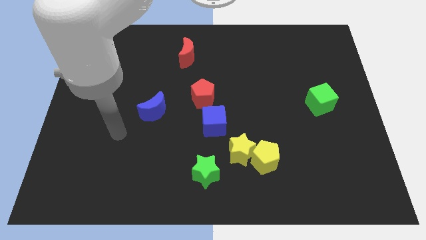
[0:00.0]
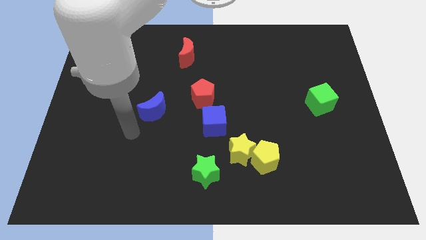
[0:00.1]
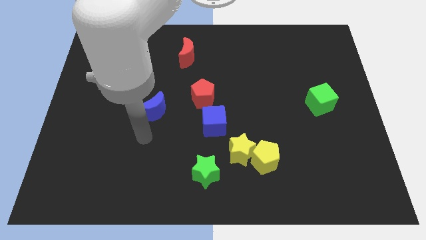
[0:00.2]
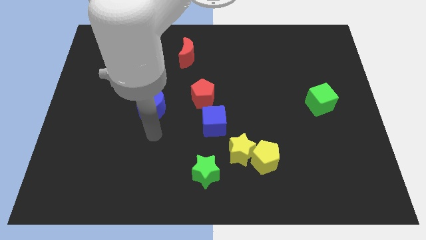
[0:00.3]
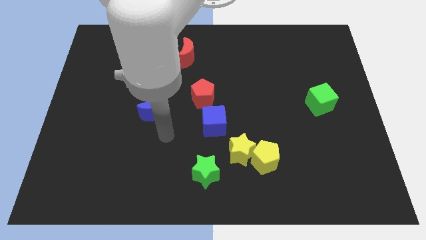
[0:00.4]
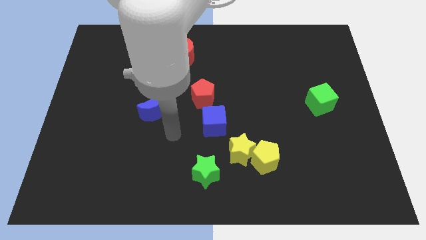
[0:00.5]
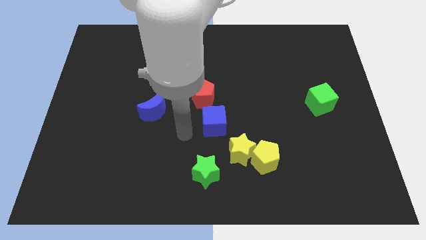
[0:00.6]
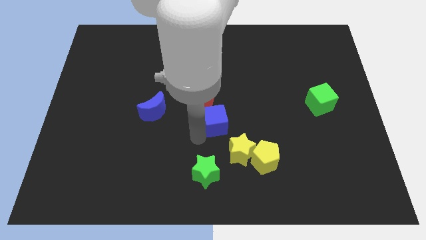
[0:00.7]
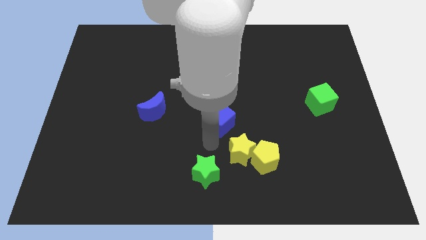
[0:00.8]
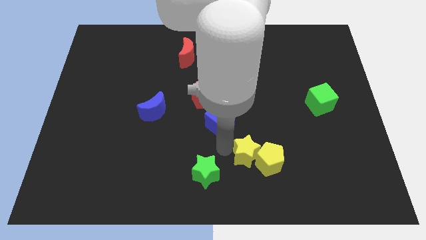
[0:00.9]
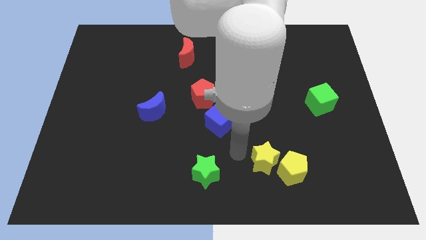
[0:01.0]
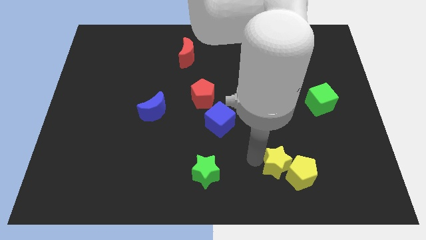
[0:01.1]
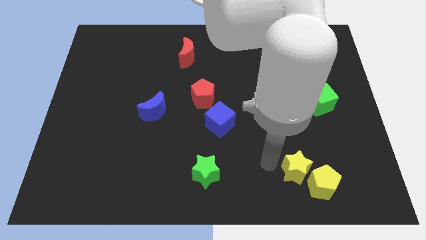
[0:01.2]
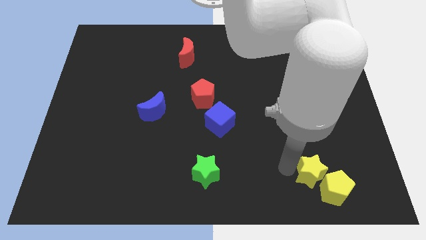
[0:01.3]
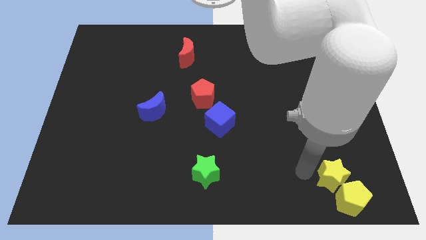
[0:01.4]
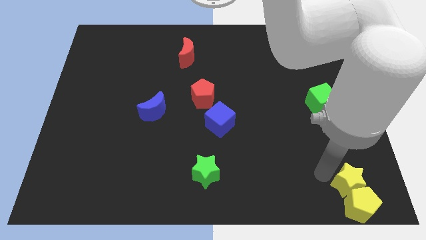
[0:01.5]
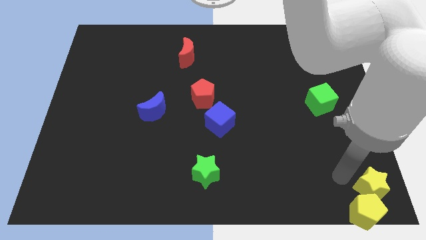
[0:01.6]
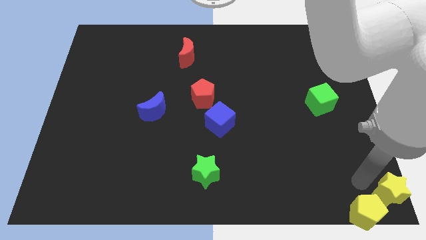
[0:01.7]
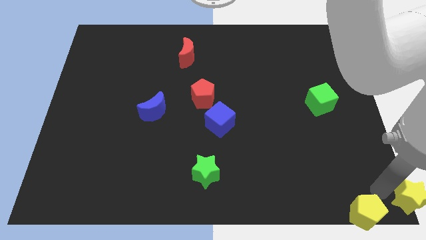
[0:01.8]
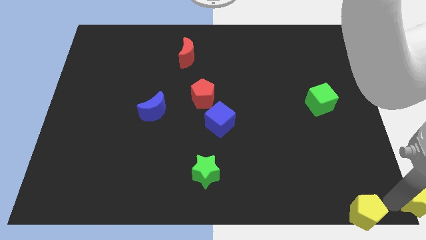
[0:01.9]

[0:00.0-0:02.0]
separate the yellow pentagon from the yellow star

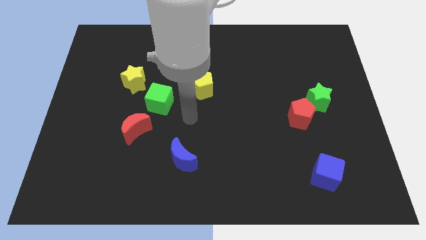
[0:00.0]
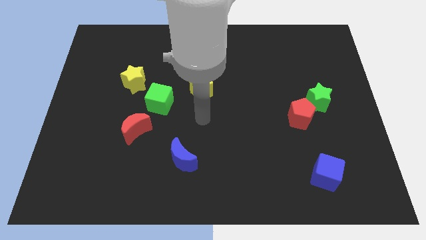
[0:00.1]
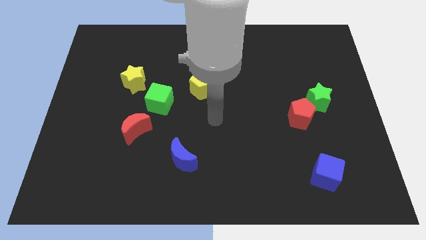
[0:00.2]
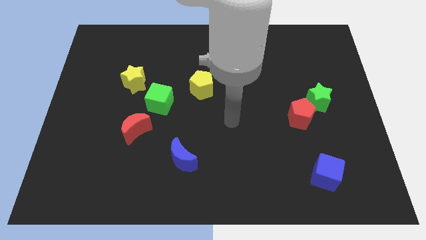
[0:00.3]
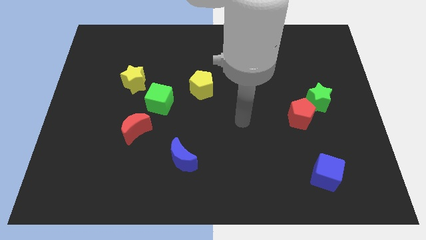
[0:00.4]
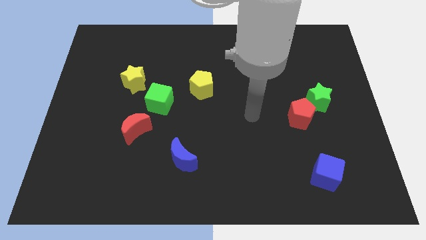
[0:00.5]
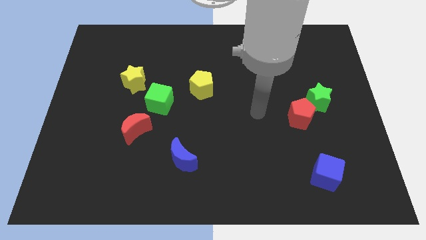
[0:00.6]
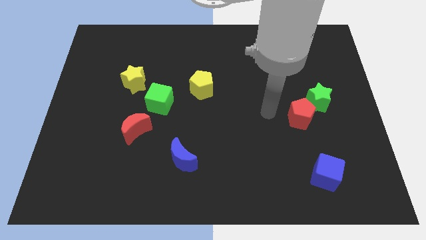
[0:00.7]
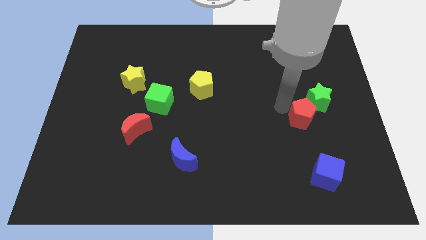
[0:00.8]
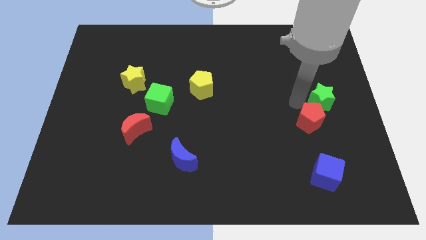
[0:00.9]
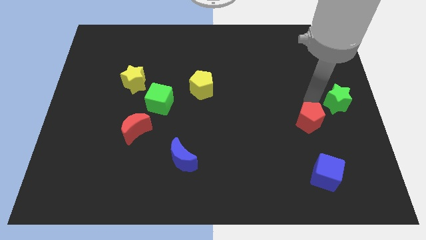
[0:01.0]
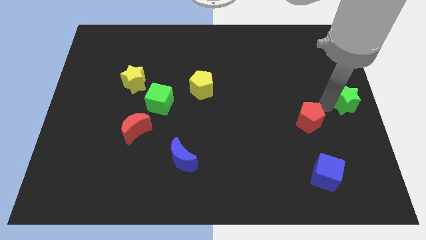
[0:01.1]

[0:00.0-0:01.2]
pull the red pentagon apart from the green star

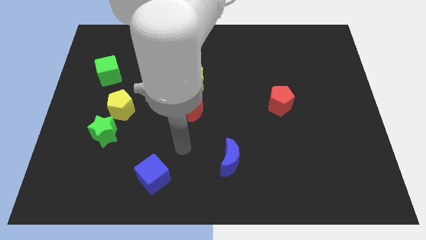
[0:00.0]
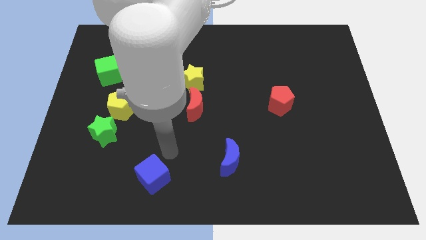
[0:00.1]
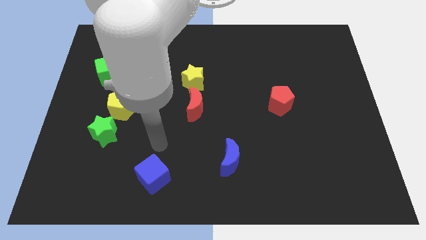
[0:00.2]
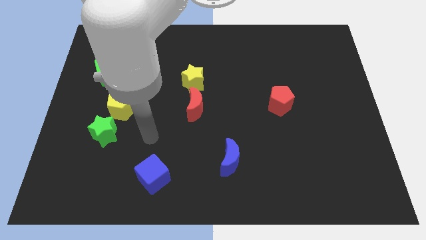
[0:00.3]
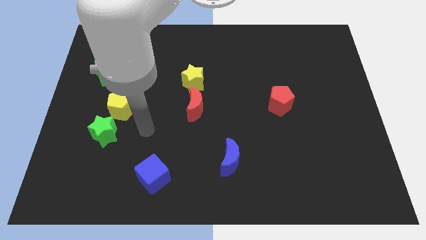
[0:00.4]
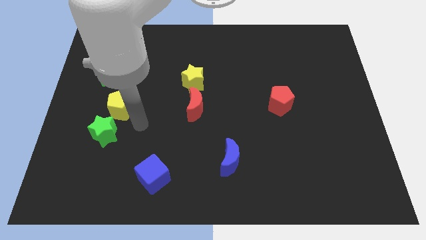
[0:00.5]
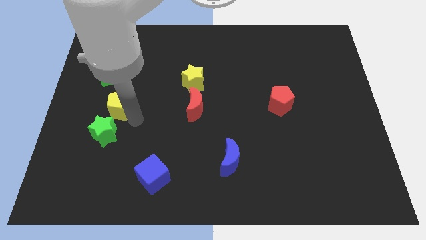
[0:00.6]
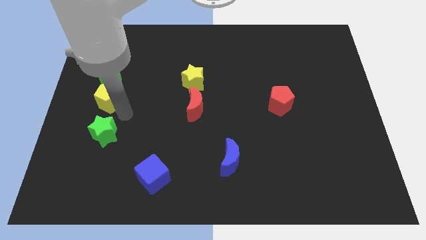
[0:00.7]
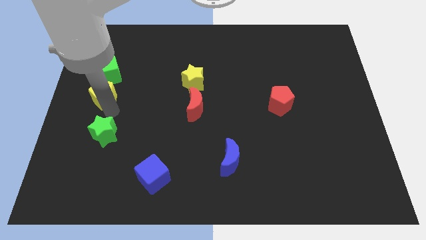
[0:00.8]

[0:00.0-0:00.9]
separate the green star from the yellow pentagon

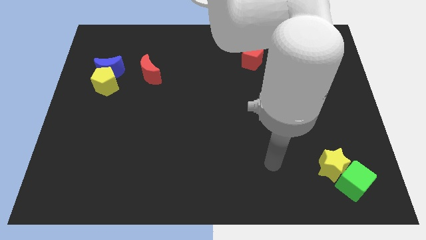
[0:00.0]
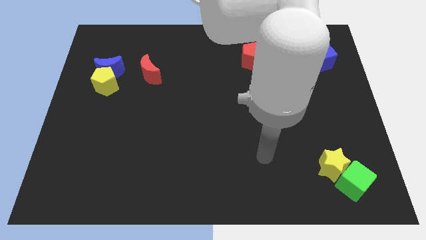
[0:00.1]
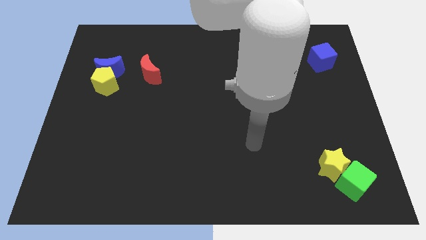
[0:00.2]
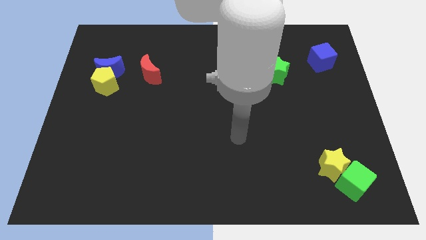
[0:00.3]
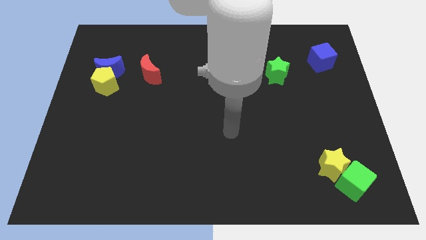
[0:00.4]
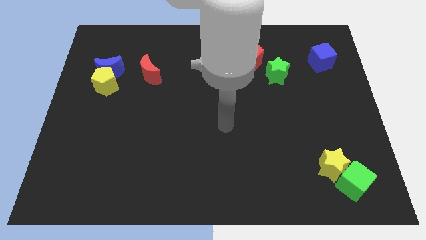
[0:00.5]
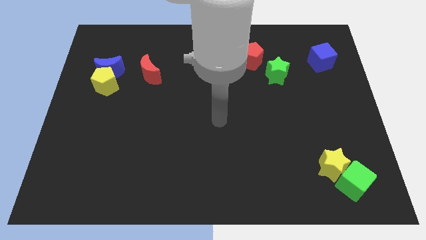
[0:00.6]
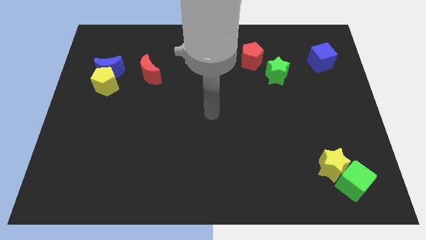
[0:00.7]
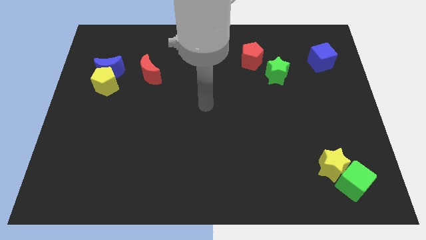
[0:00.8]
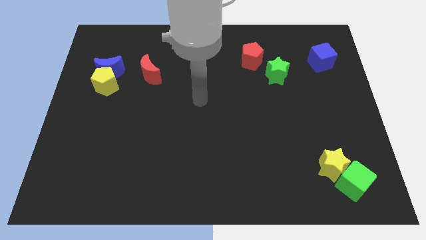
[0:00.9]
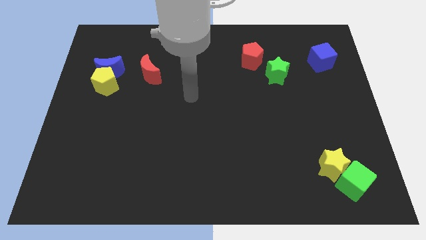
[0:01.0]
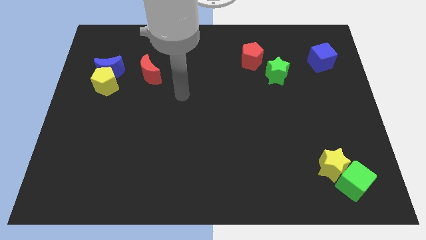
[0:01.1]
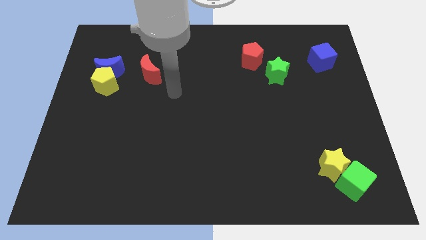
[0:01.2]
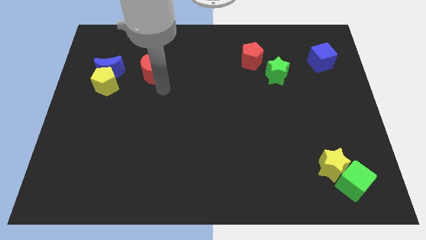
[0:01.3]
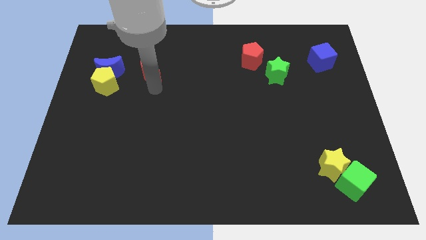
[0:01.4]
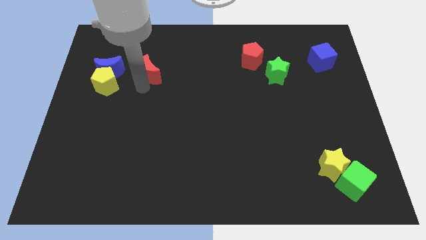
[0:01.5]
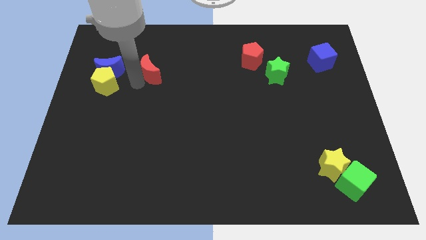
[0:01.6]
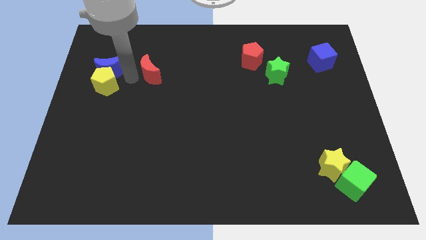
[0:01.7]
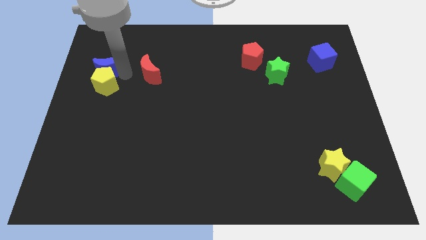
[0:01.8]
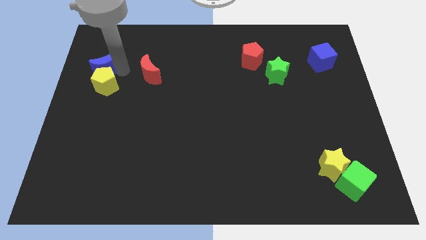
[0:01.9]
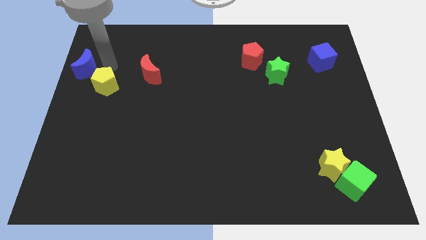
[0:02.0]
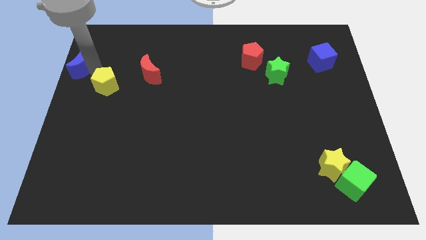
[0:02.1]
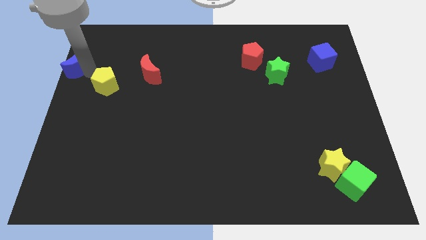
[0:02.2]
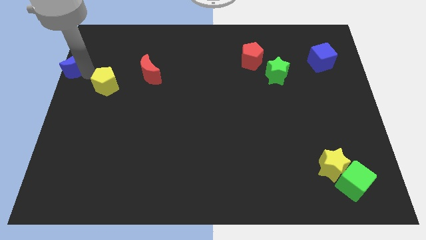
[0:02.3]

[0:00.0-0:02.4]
move the yellow pentagon away from the blue moon

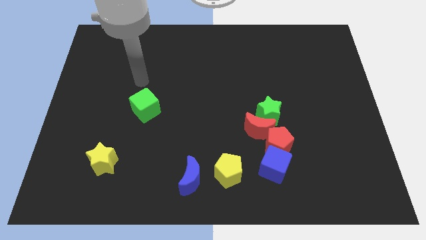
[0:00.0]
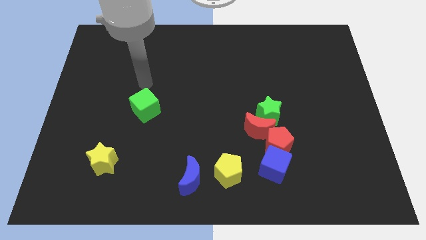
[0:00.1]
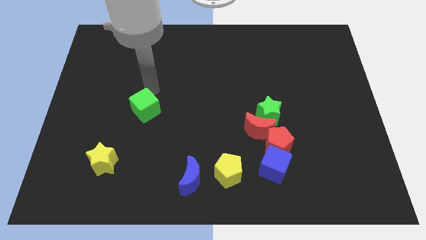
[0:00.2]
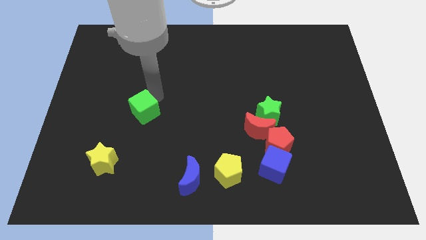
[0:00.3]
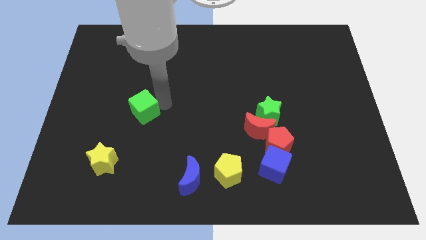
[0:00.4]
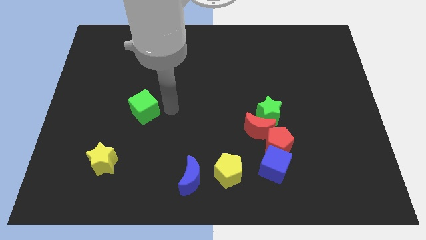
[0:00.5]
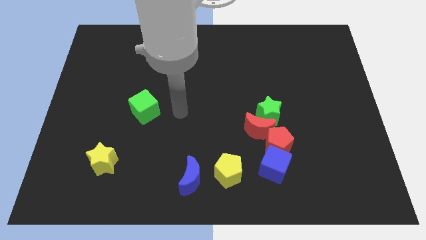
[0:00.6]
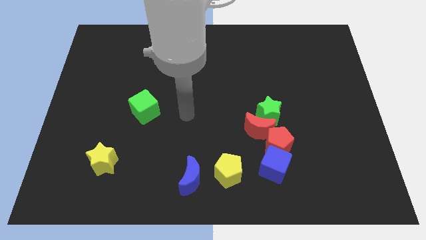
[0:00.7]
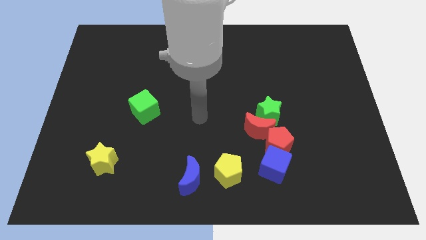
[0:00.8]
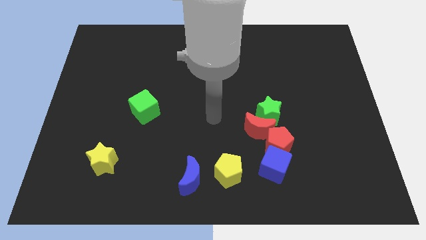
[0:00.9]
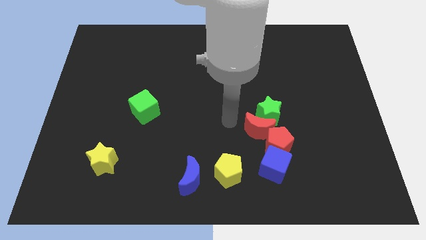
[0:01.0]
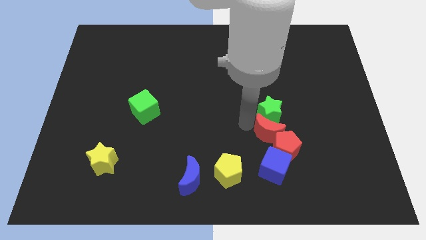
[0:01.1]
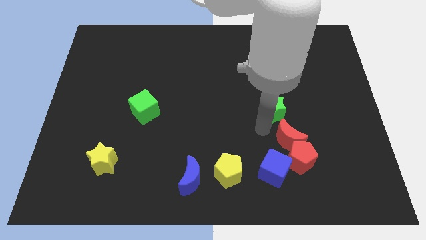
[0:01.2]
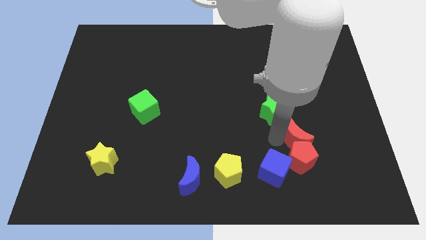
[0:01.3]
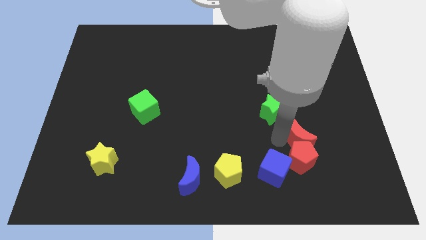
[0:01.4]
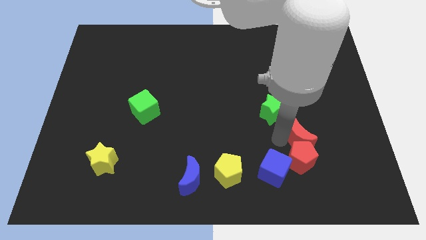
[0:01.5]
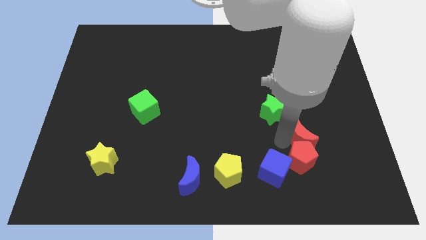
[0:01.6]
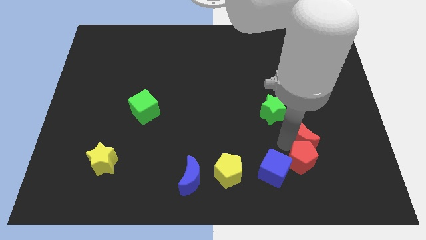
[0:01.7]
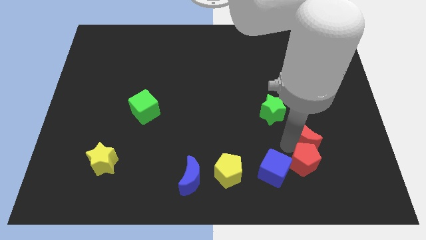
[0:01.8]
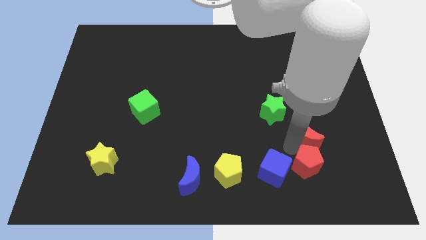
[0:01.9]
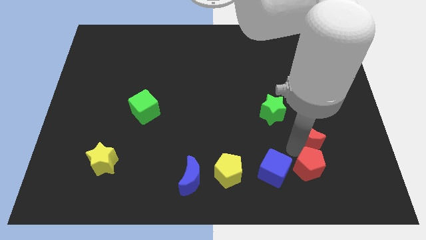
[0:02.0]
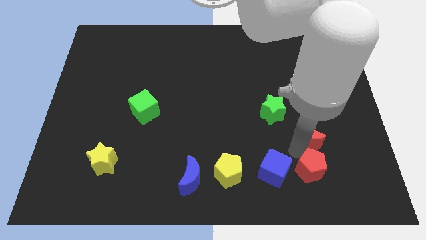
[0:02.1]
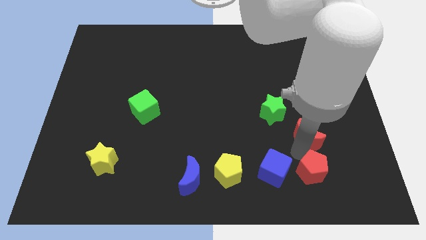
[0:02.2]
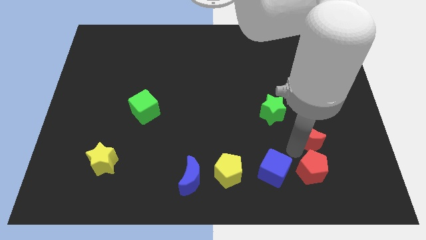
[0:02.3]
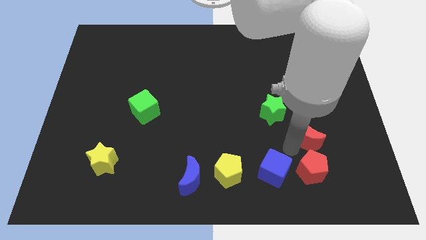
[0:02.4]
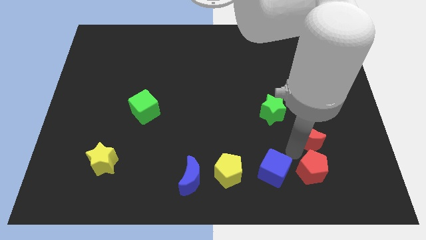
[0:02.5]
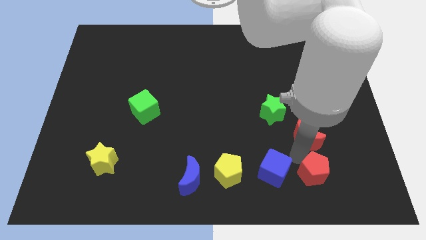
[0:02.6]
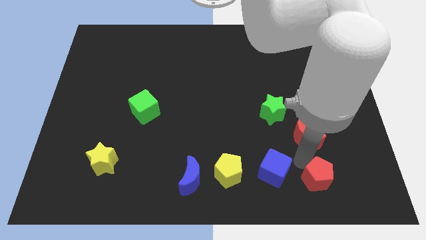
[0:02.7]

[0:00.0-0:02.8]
separate the red pentagon from the group

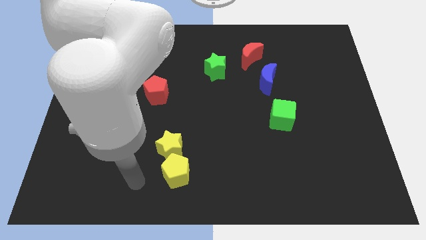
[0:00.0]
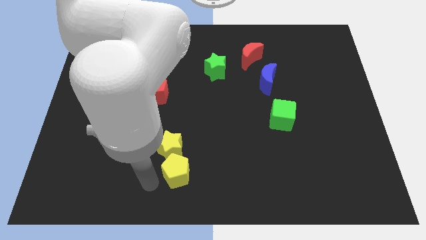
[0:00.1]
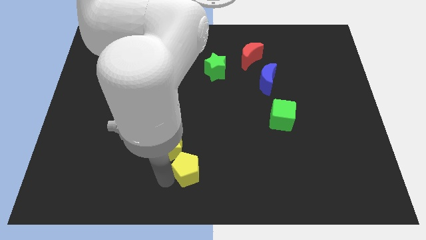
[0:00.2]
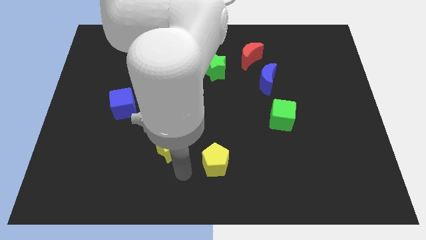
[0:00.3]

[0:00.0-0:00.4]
move the yellow star away from the yellow pentagon
